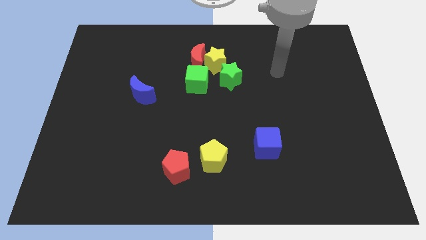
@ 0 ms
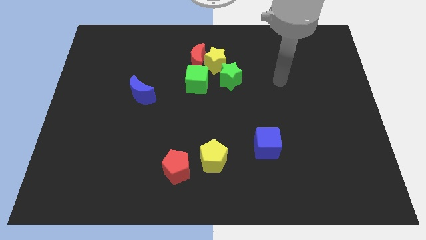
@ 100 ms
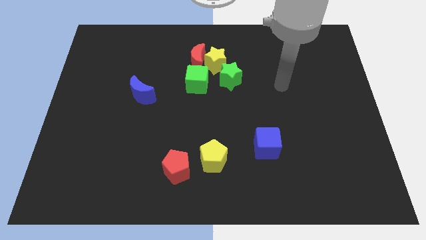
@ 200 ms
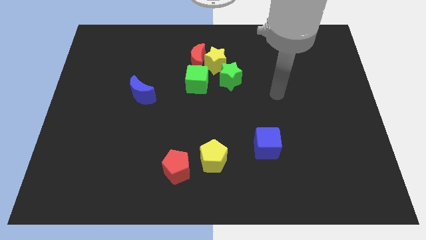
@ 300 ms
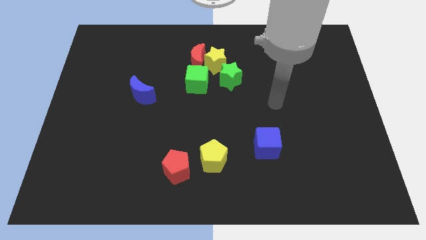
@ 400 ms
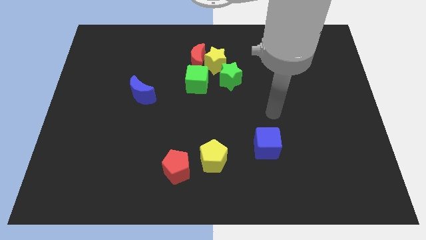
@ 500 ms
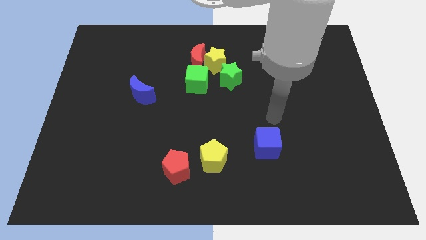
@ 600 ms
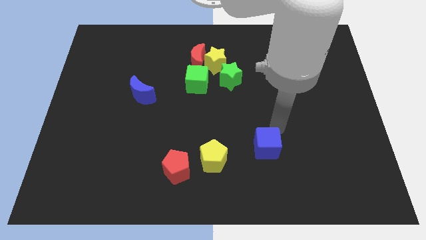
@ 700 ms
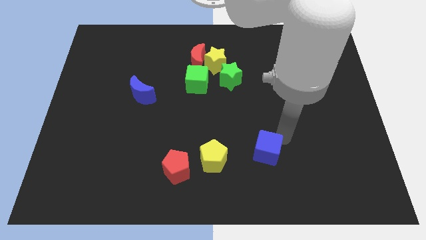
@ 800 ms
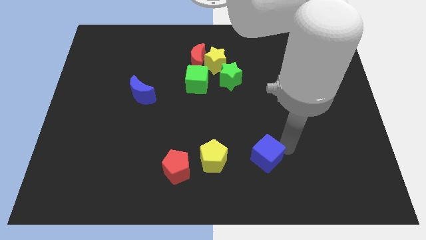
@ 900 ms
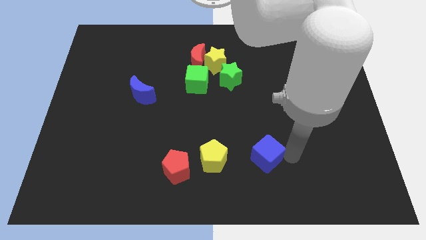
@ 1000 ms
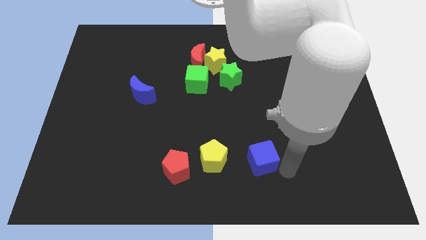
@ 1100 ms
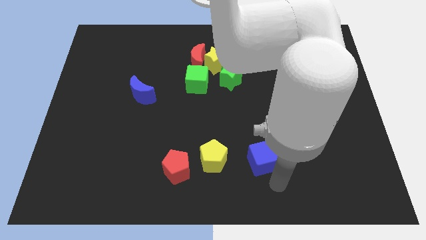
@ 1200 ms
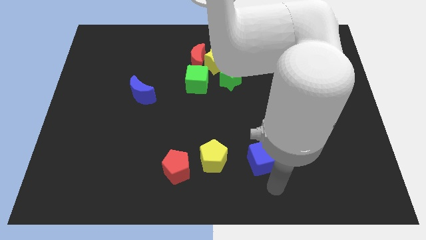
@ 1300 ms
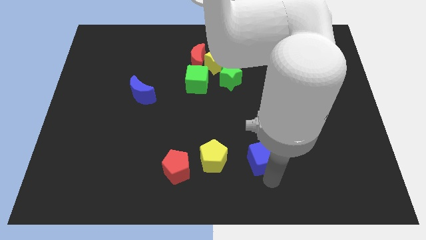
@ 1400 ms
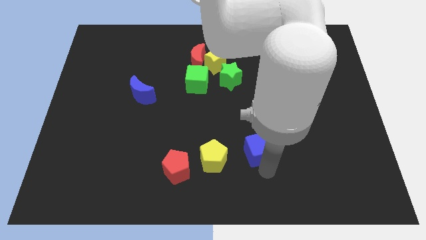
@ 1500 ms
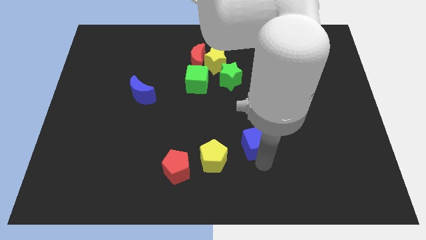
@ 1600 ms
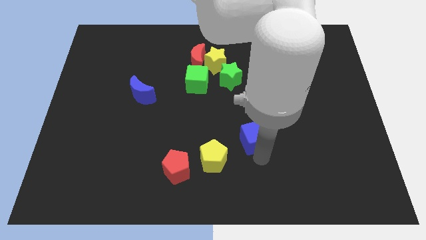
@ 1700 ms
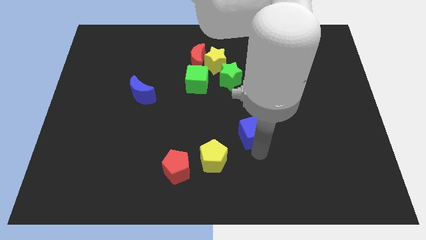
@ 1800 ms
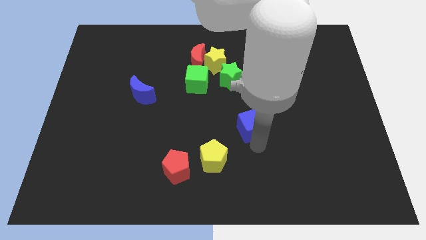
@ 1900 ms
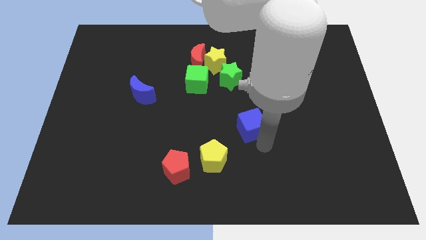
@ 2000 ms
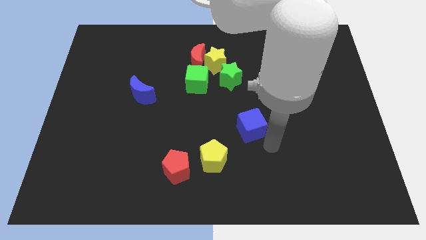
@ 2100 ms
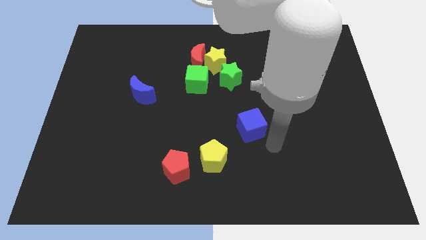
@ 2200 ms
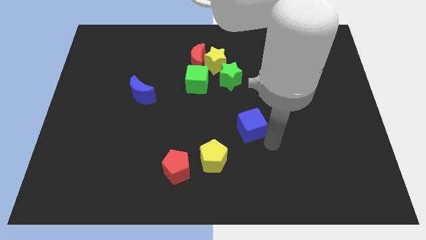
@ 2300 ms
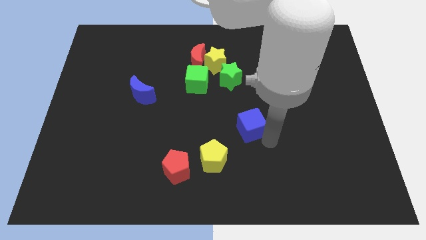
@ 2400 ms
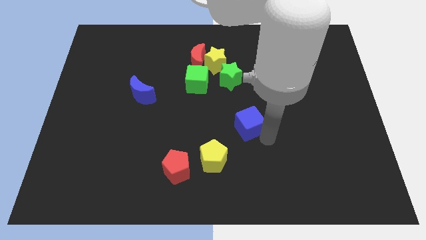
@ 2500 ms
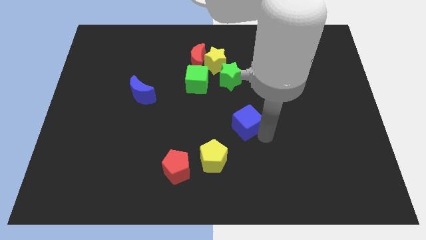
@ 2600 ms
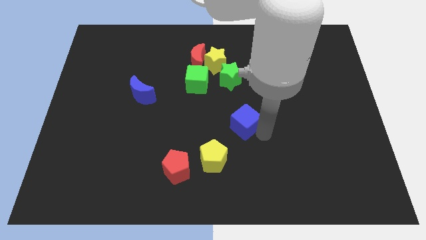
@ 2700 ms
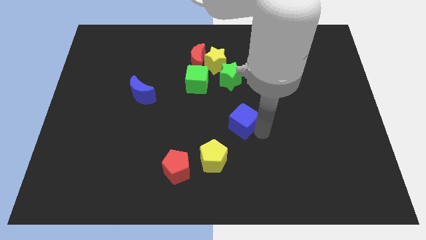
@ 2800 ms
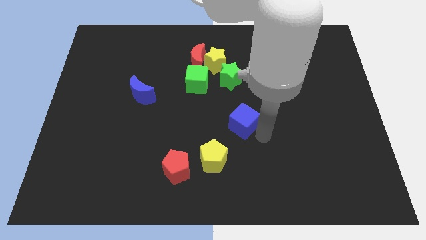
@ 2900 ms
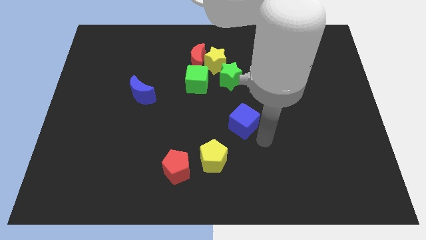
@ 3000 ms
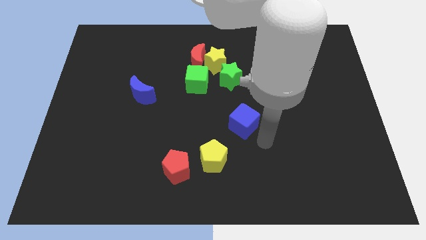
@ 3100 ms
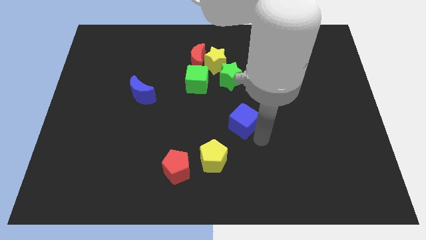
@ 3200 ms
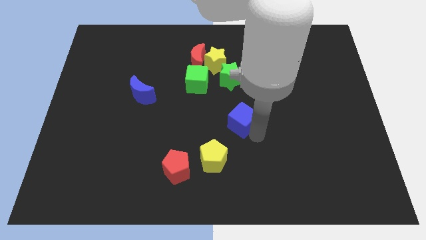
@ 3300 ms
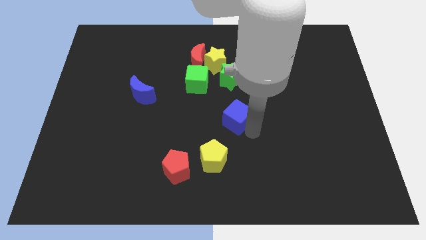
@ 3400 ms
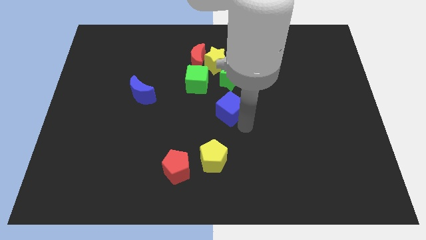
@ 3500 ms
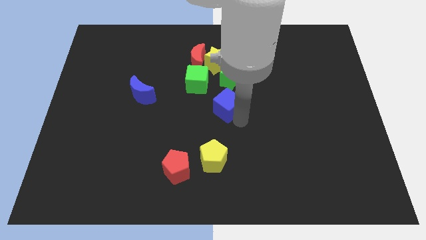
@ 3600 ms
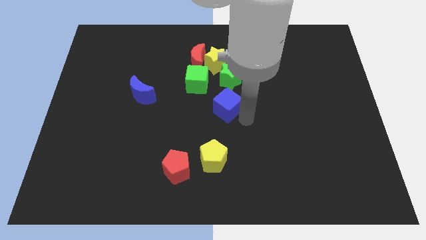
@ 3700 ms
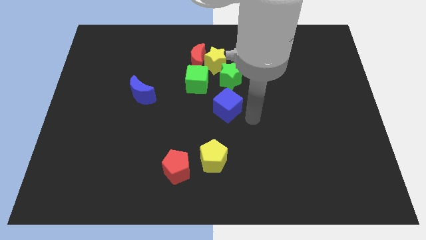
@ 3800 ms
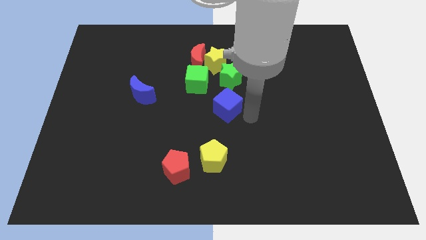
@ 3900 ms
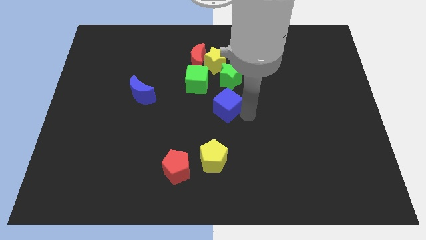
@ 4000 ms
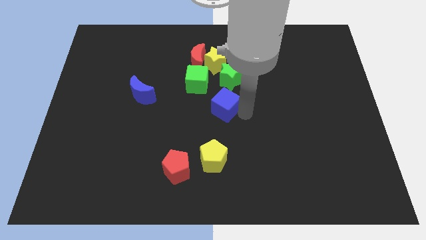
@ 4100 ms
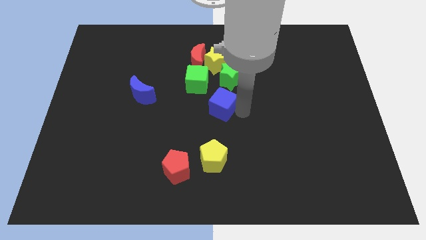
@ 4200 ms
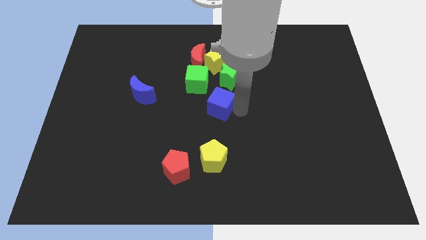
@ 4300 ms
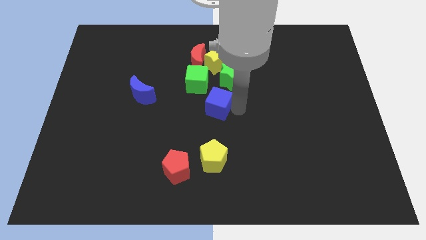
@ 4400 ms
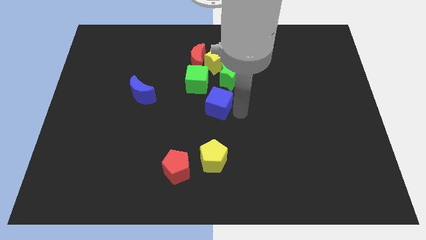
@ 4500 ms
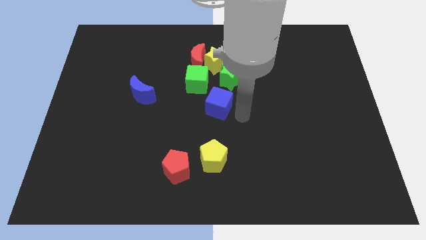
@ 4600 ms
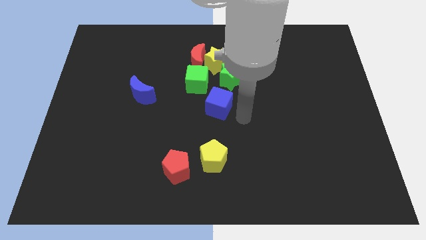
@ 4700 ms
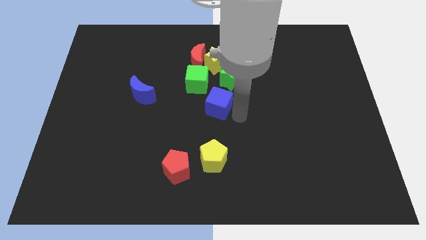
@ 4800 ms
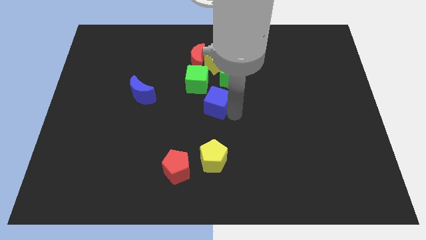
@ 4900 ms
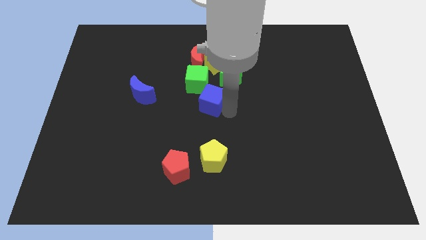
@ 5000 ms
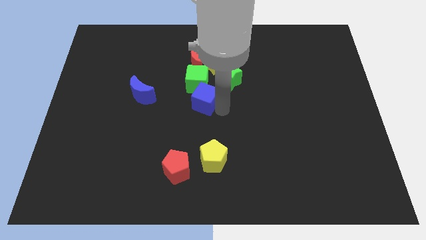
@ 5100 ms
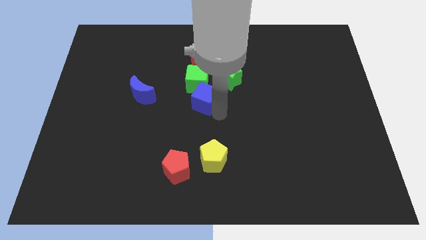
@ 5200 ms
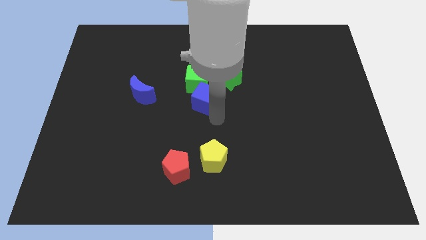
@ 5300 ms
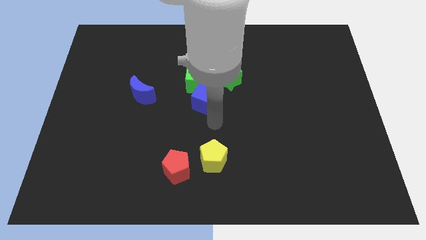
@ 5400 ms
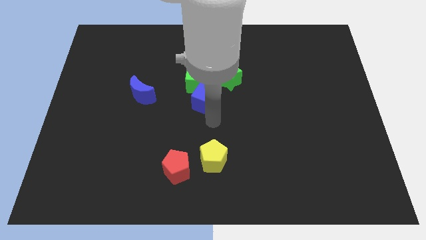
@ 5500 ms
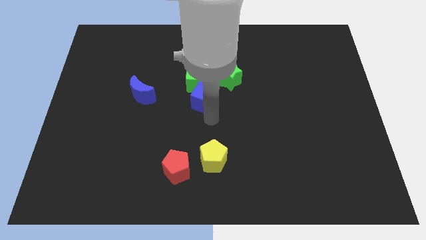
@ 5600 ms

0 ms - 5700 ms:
push the blue cube next to the green cube

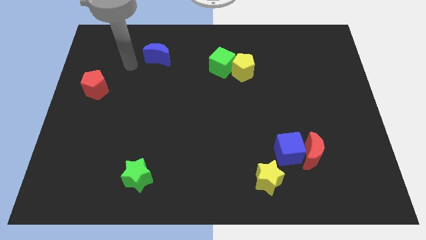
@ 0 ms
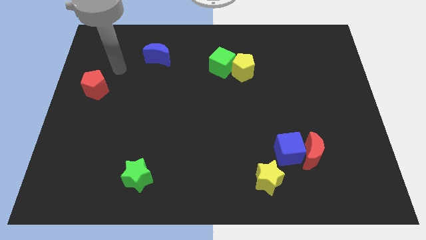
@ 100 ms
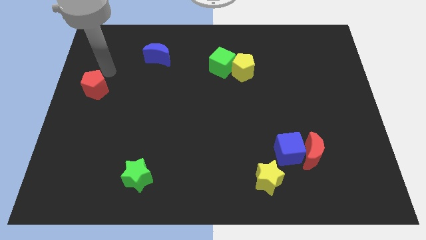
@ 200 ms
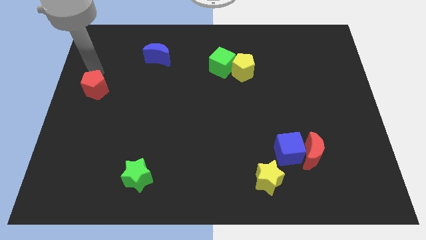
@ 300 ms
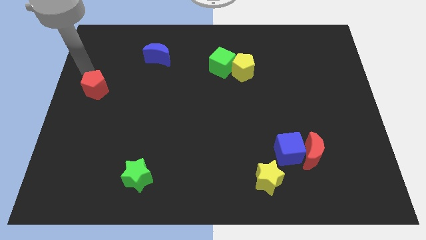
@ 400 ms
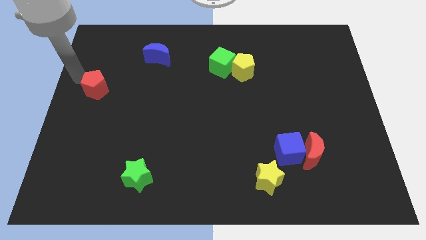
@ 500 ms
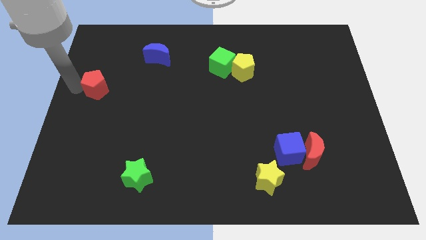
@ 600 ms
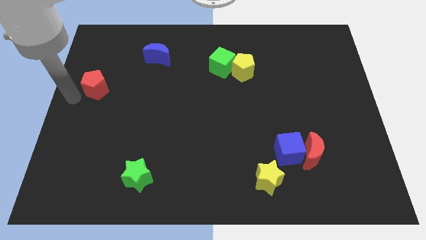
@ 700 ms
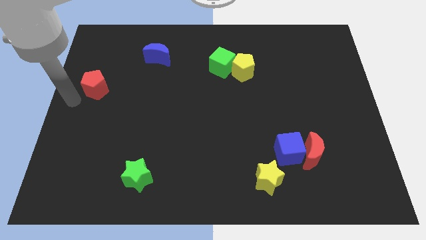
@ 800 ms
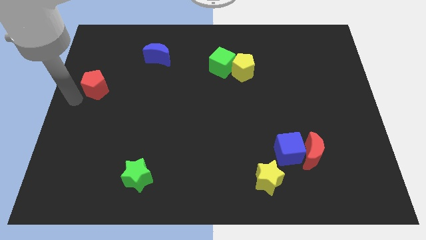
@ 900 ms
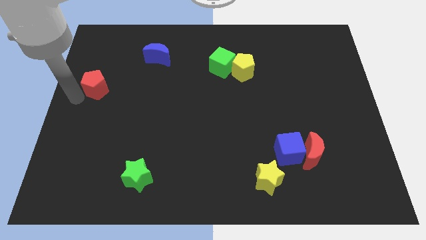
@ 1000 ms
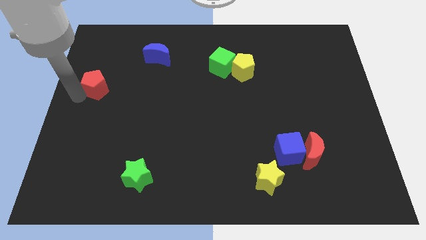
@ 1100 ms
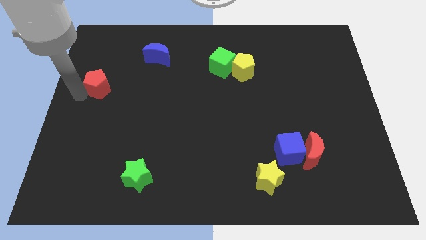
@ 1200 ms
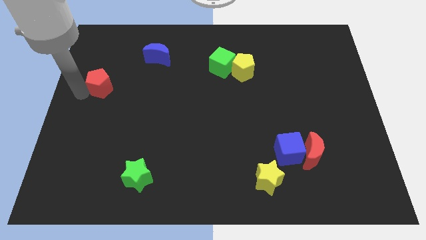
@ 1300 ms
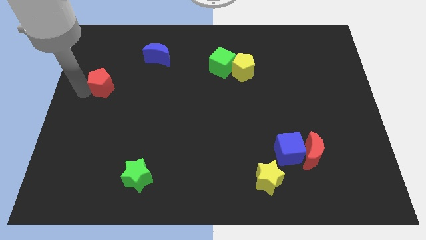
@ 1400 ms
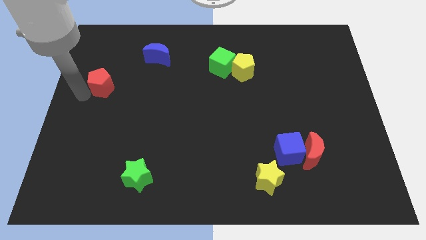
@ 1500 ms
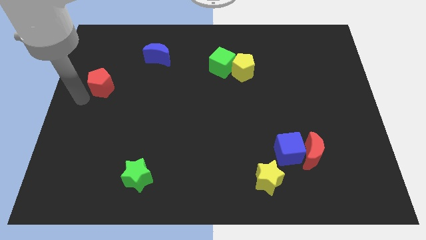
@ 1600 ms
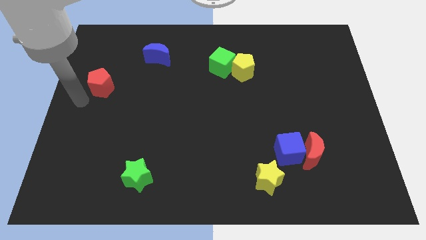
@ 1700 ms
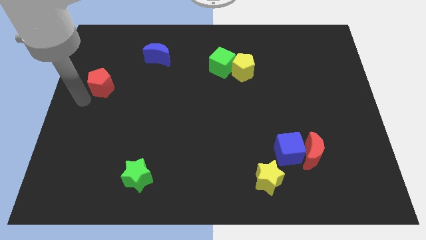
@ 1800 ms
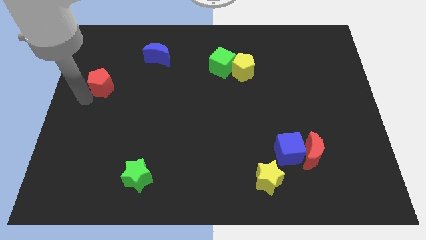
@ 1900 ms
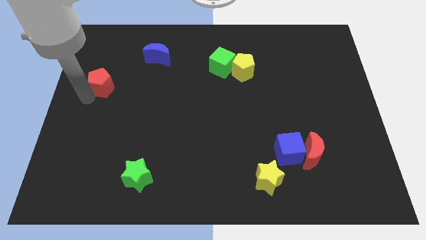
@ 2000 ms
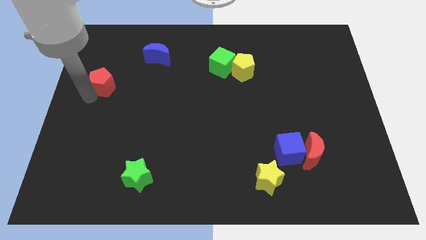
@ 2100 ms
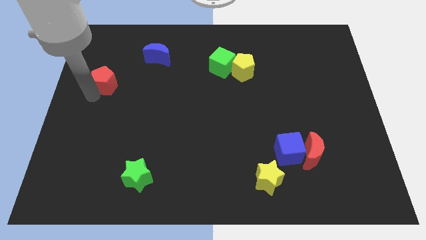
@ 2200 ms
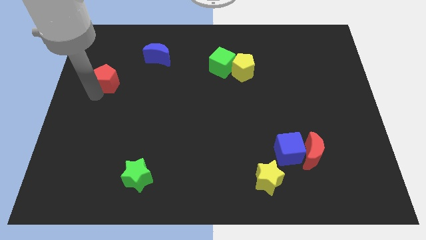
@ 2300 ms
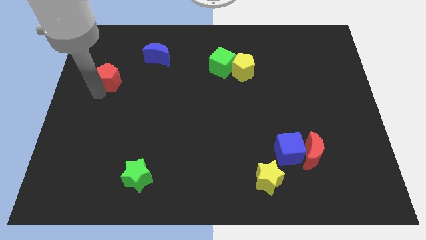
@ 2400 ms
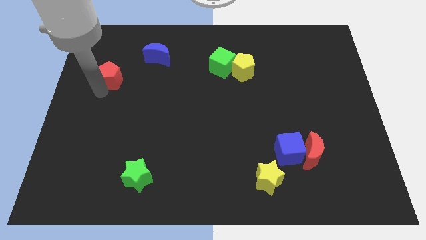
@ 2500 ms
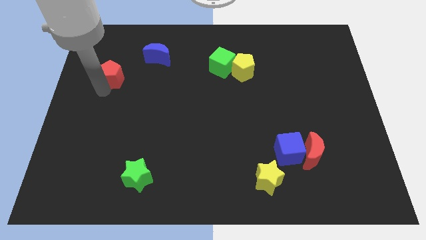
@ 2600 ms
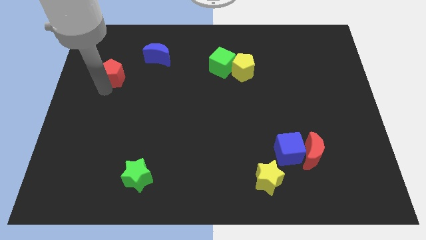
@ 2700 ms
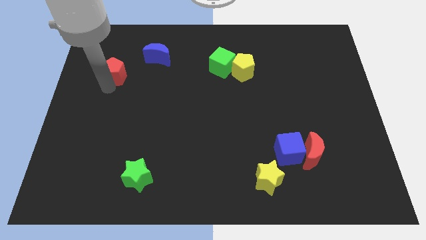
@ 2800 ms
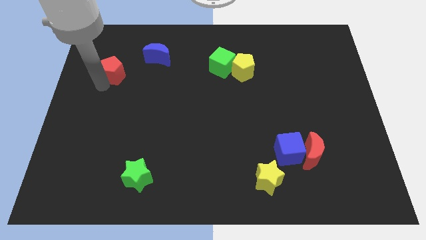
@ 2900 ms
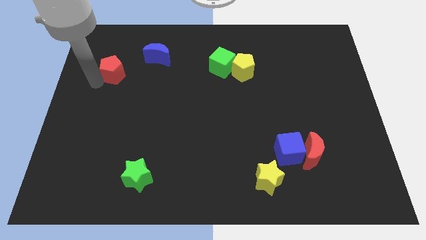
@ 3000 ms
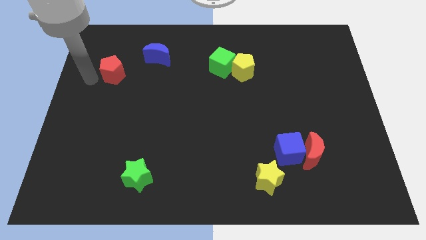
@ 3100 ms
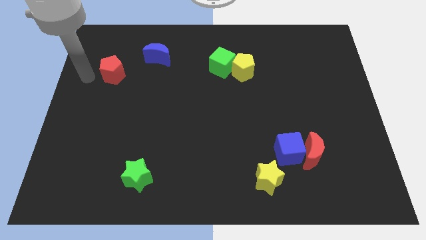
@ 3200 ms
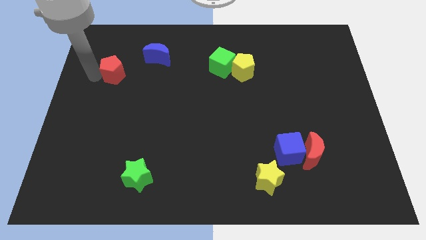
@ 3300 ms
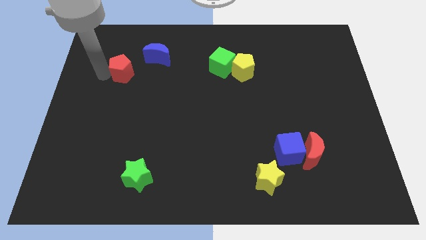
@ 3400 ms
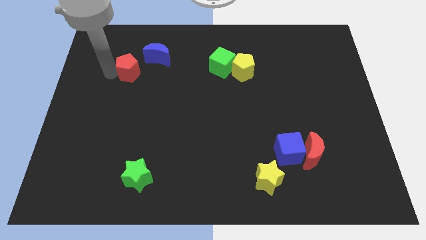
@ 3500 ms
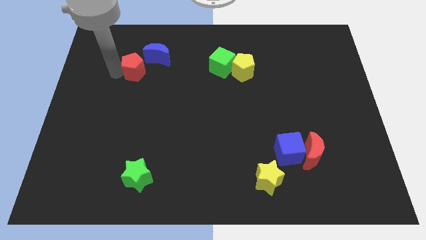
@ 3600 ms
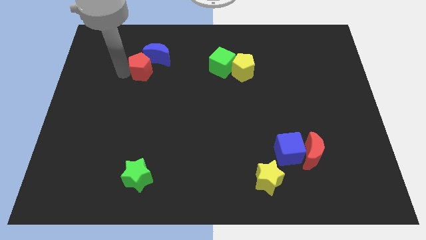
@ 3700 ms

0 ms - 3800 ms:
push the red pentagon towards the blue moon
